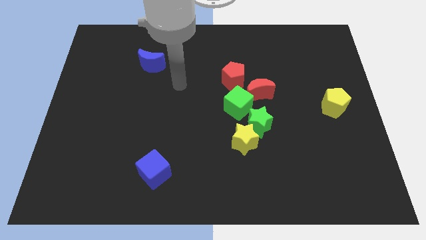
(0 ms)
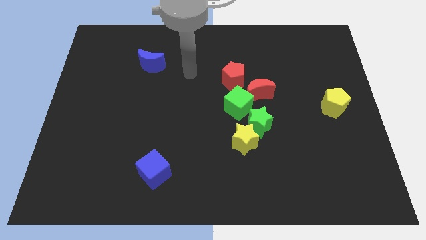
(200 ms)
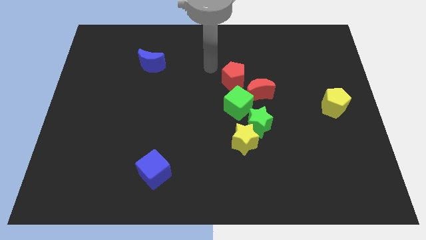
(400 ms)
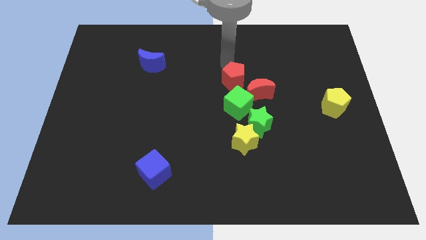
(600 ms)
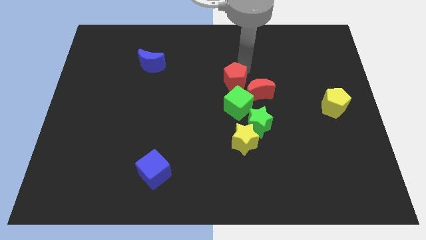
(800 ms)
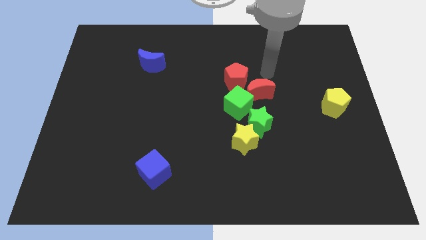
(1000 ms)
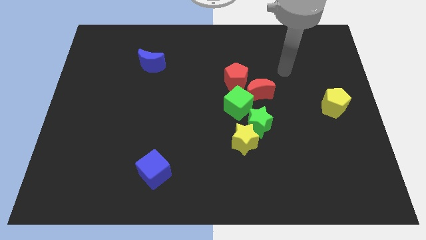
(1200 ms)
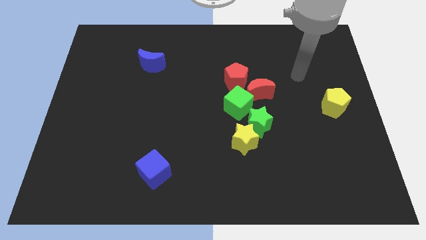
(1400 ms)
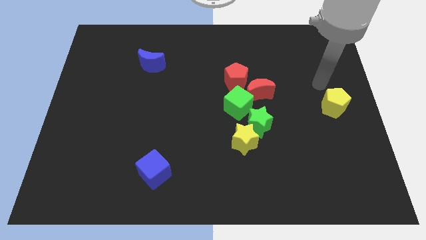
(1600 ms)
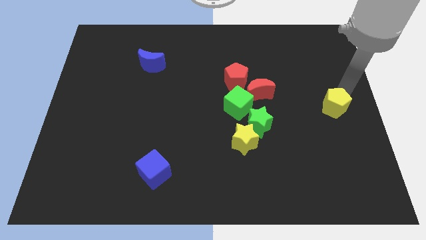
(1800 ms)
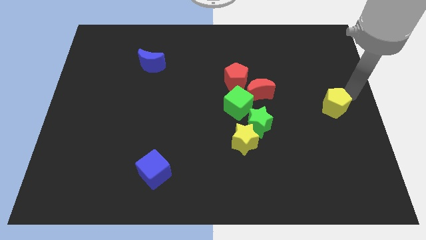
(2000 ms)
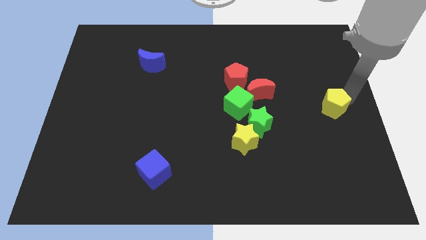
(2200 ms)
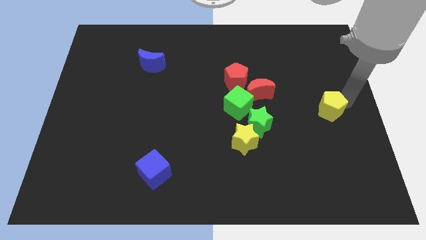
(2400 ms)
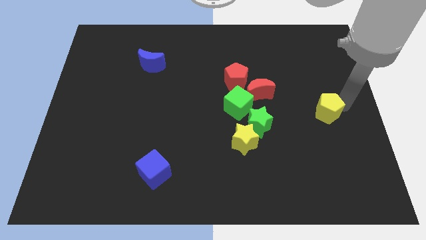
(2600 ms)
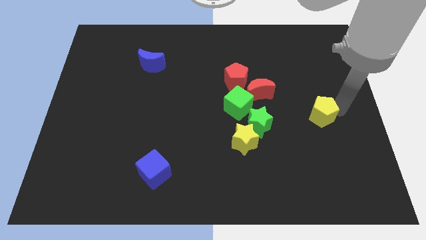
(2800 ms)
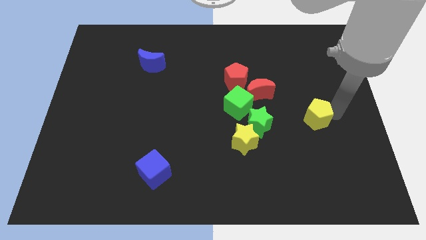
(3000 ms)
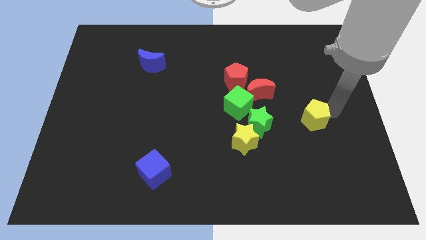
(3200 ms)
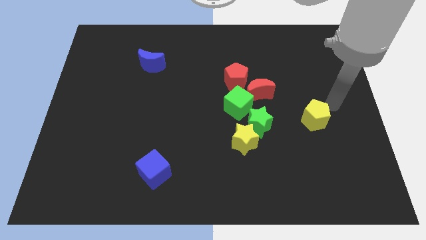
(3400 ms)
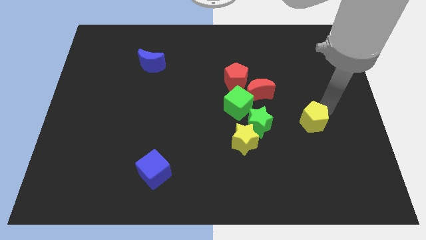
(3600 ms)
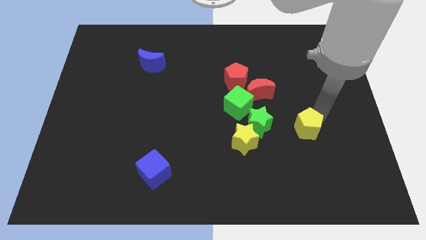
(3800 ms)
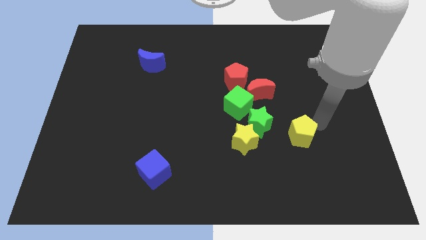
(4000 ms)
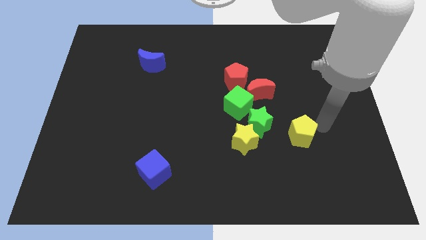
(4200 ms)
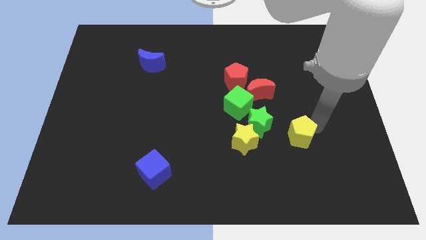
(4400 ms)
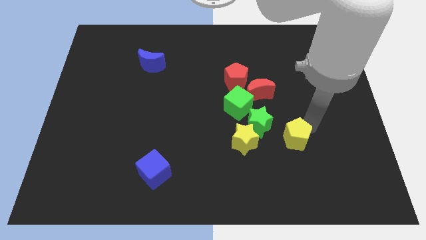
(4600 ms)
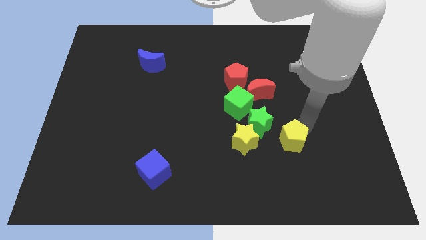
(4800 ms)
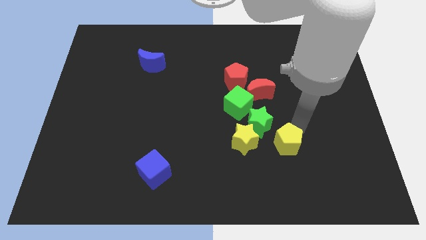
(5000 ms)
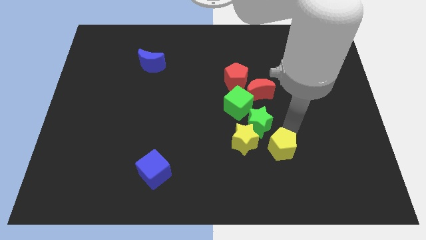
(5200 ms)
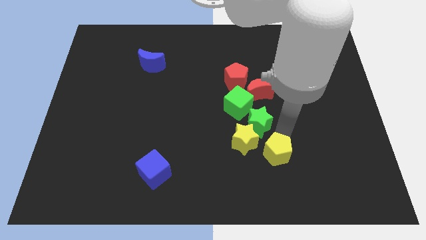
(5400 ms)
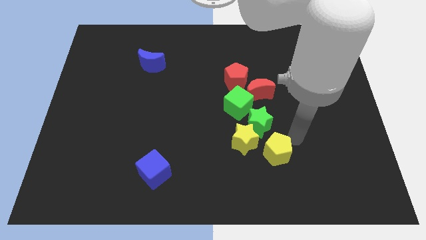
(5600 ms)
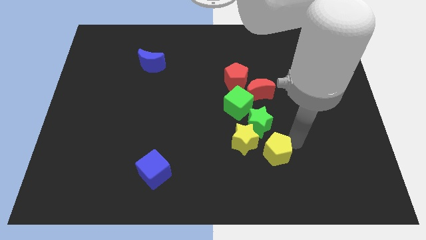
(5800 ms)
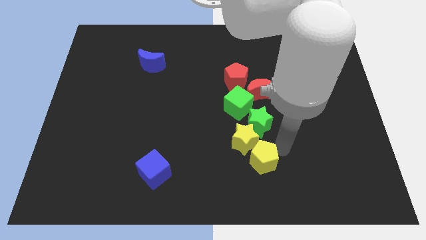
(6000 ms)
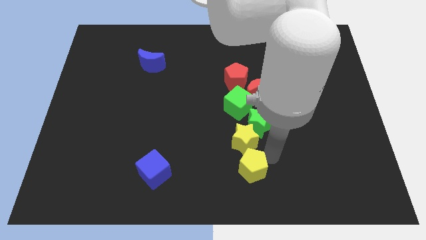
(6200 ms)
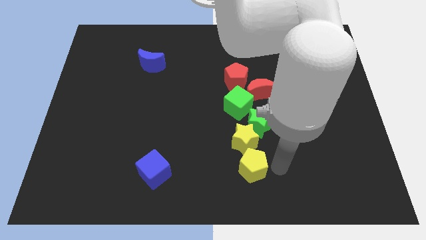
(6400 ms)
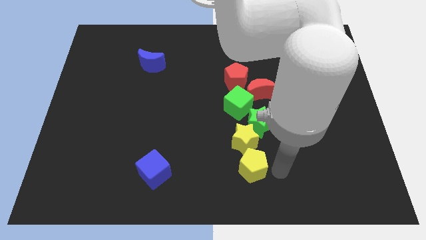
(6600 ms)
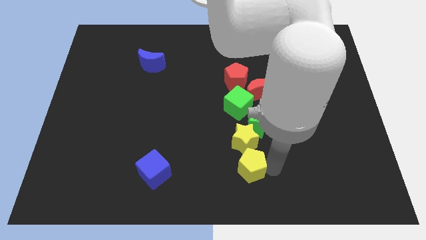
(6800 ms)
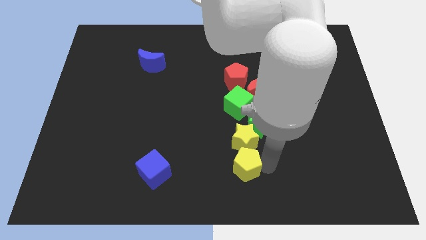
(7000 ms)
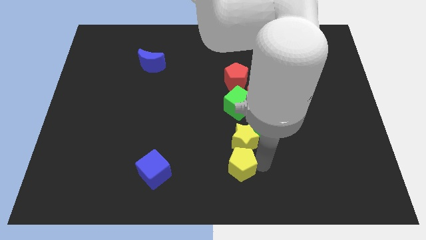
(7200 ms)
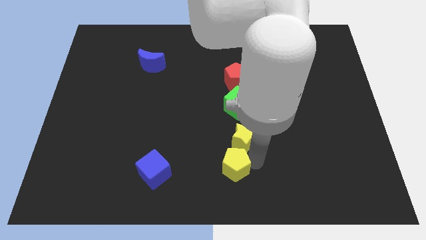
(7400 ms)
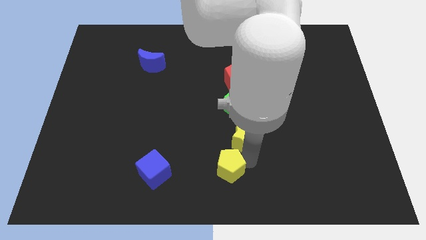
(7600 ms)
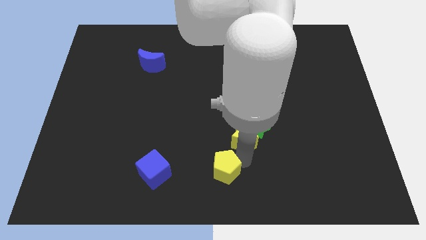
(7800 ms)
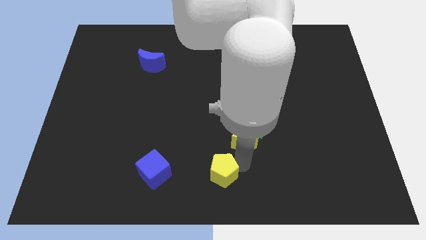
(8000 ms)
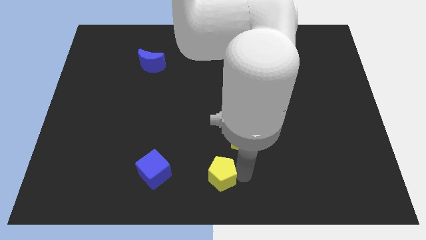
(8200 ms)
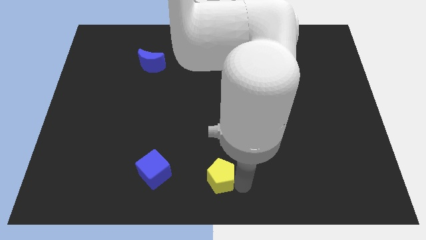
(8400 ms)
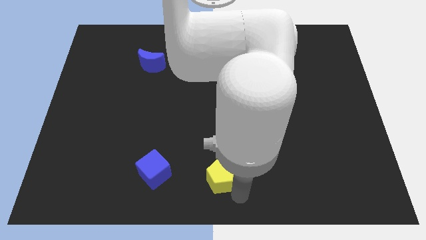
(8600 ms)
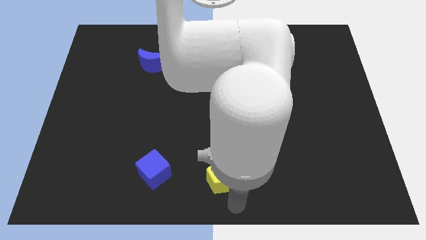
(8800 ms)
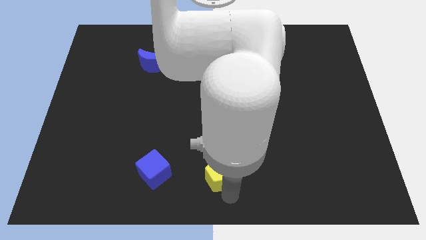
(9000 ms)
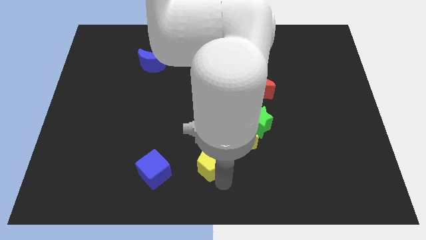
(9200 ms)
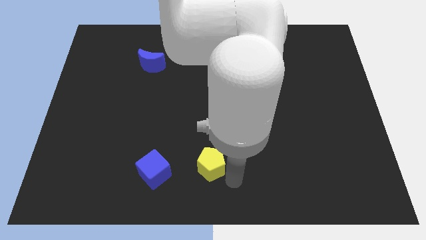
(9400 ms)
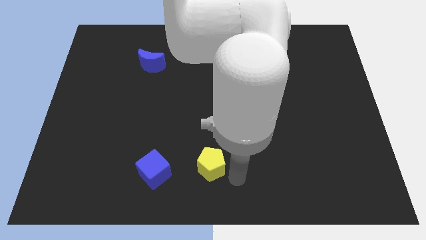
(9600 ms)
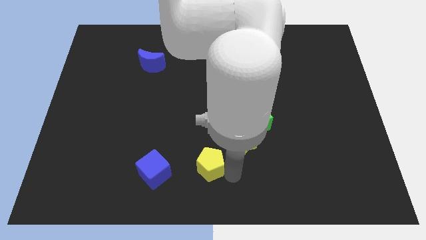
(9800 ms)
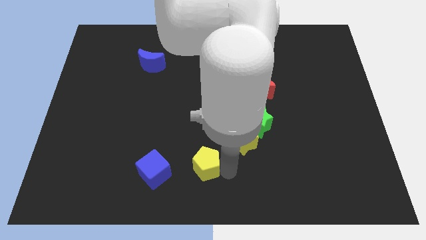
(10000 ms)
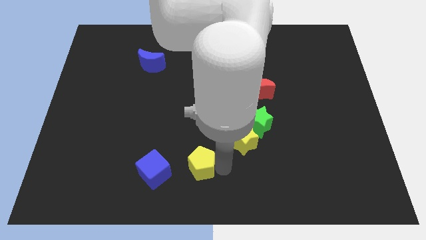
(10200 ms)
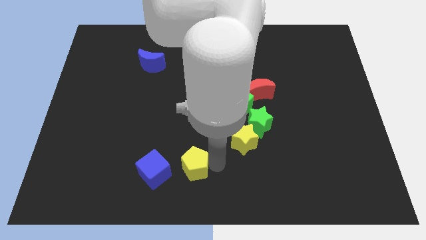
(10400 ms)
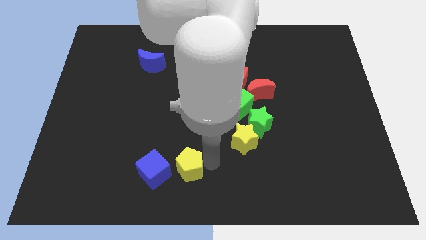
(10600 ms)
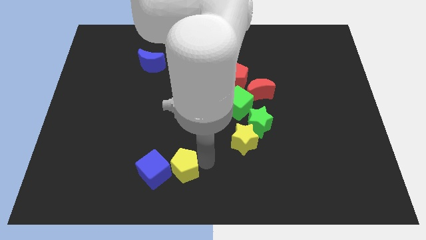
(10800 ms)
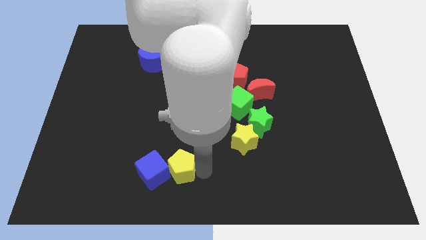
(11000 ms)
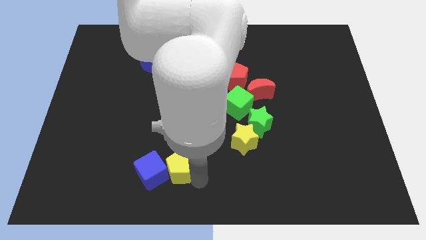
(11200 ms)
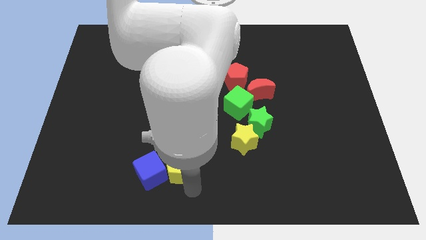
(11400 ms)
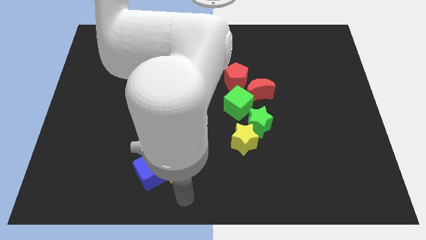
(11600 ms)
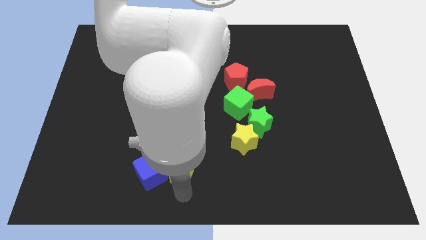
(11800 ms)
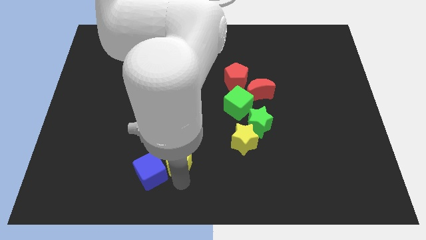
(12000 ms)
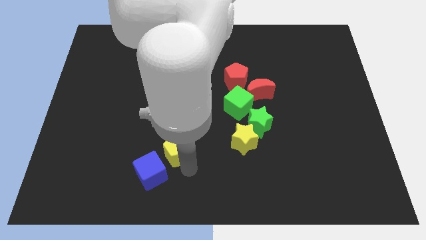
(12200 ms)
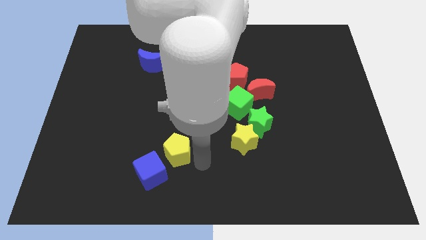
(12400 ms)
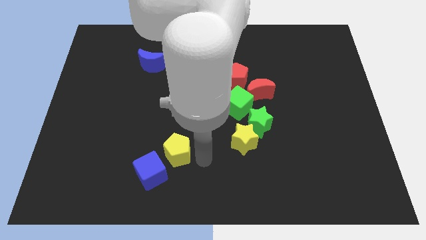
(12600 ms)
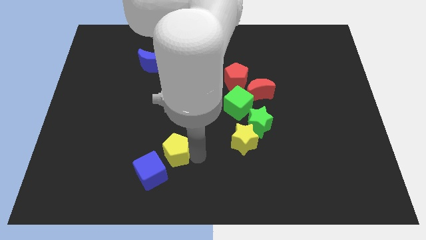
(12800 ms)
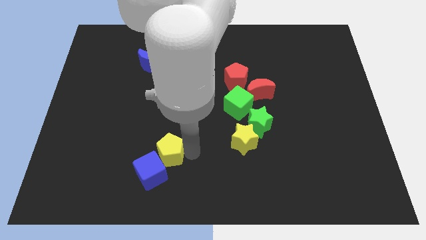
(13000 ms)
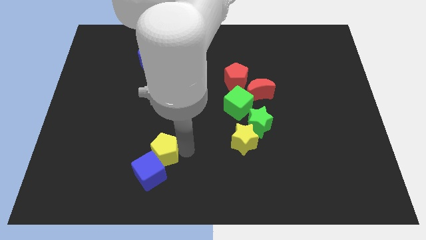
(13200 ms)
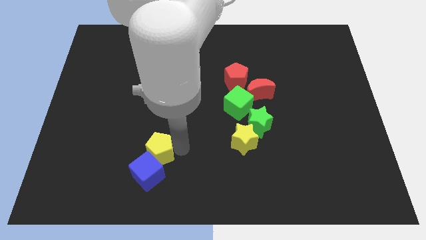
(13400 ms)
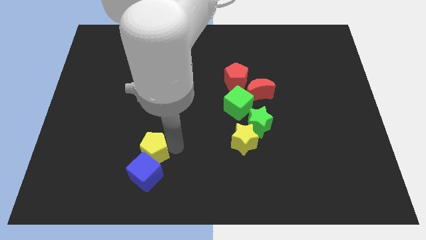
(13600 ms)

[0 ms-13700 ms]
put the yellow pentagon to the top left of the blue cube

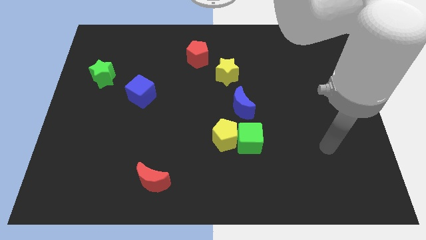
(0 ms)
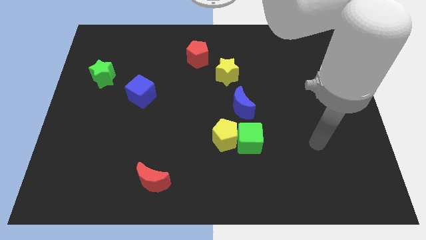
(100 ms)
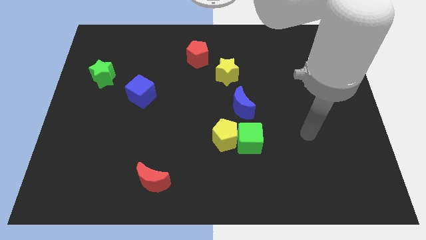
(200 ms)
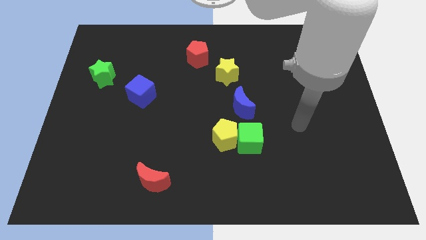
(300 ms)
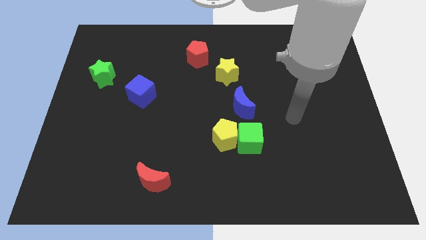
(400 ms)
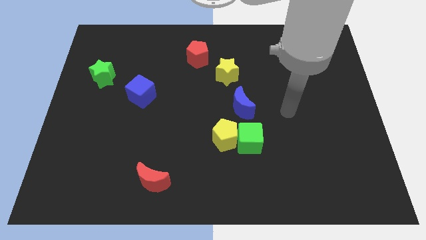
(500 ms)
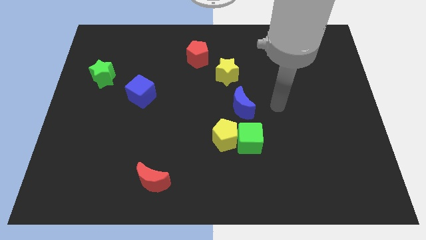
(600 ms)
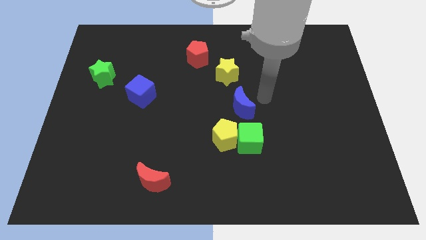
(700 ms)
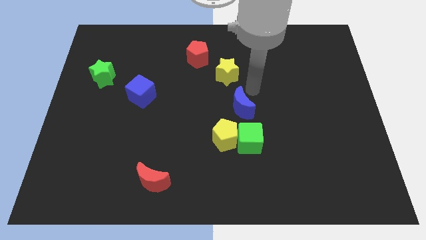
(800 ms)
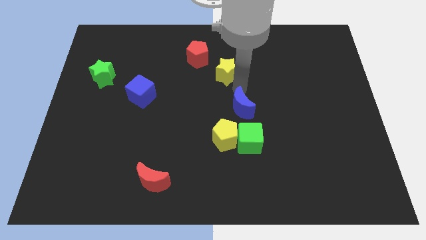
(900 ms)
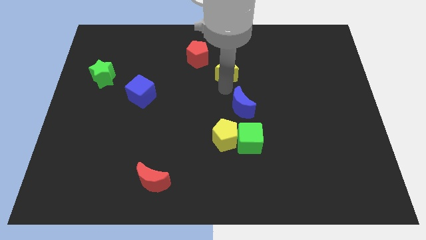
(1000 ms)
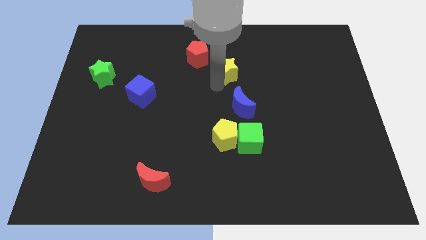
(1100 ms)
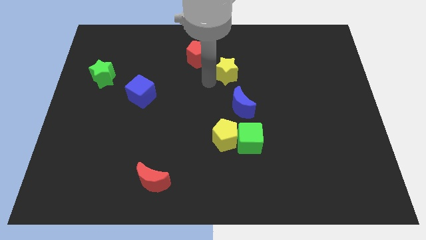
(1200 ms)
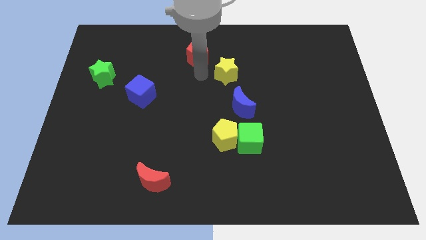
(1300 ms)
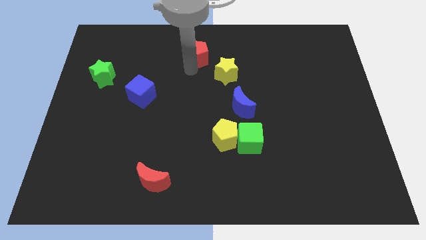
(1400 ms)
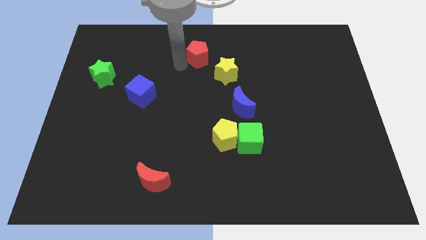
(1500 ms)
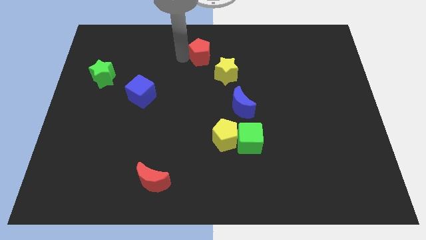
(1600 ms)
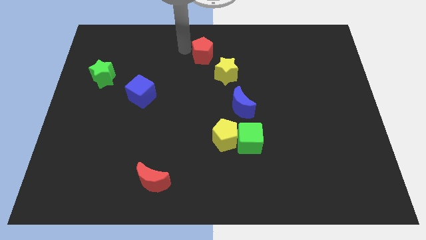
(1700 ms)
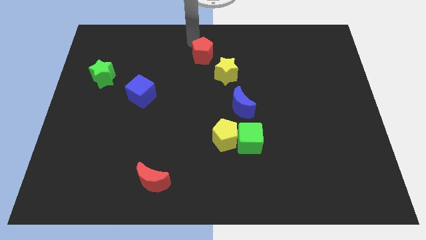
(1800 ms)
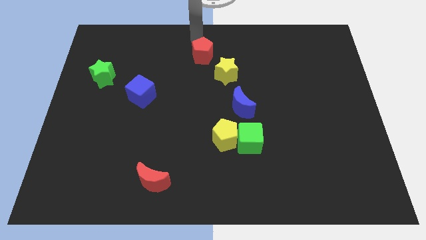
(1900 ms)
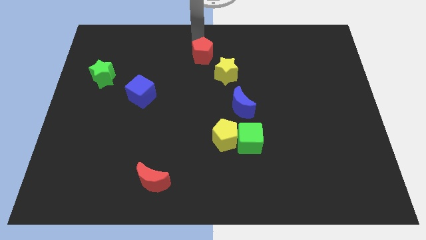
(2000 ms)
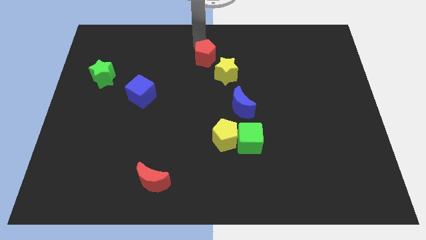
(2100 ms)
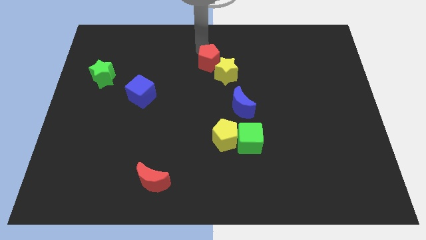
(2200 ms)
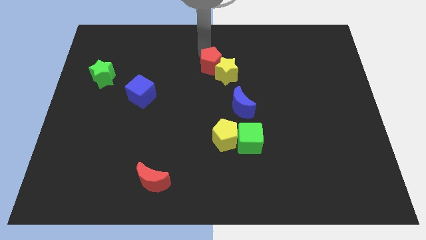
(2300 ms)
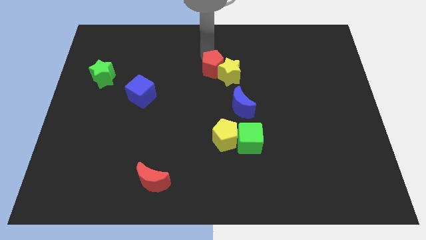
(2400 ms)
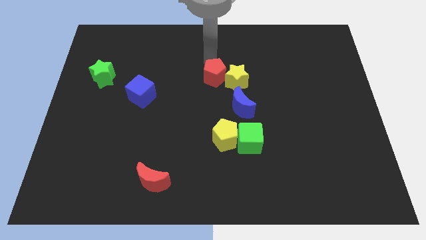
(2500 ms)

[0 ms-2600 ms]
slide the red pentagon to the top left of the blue moon
